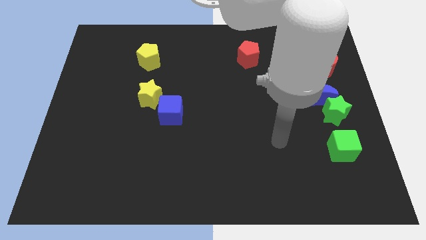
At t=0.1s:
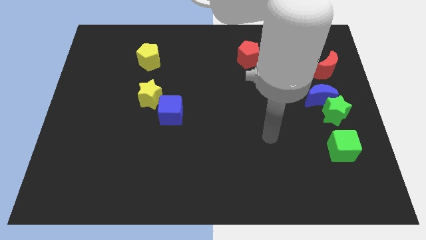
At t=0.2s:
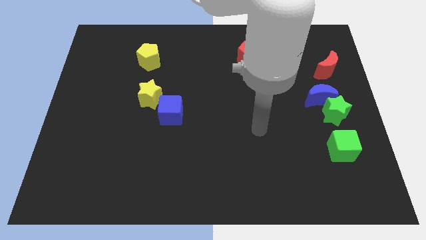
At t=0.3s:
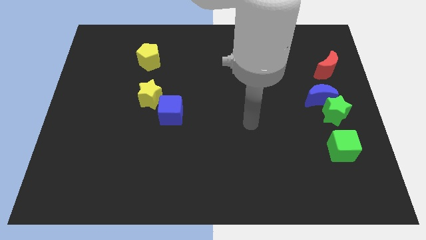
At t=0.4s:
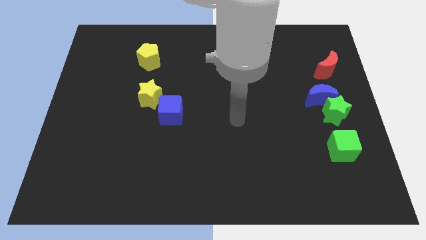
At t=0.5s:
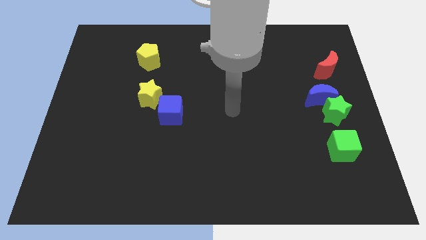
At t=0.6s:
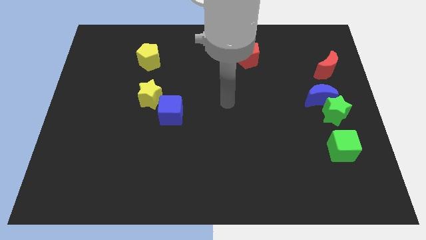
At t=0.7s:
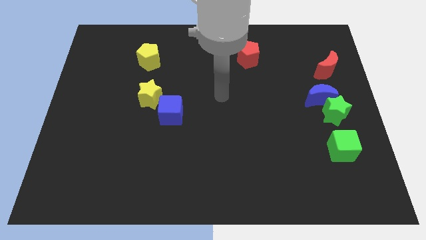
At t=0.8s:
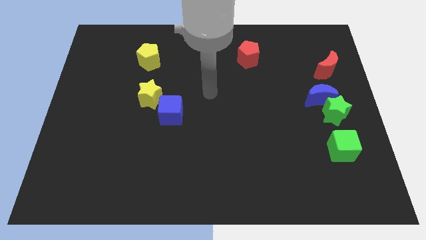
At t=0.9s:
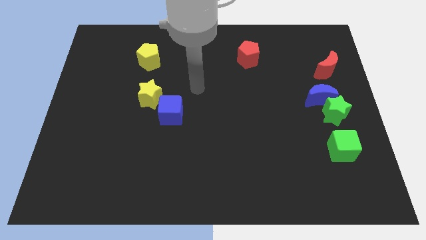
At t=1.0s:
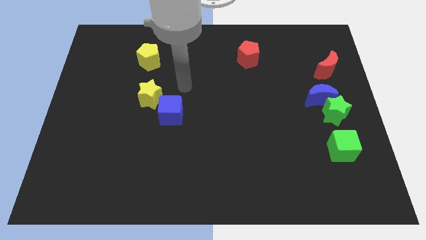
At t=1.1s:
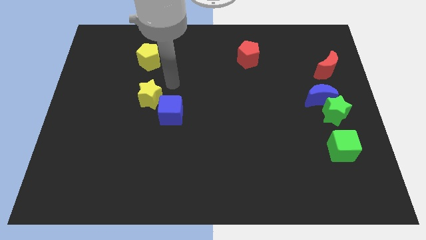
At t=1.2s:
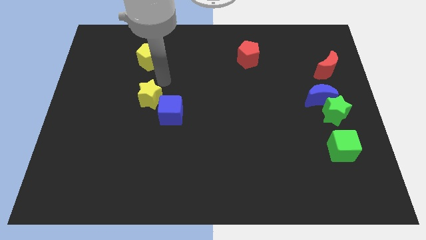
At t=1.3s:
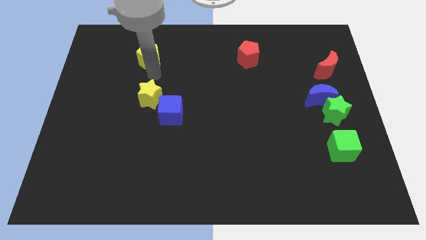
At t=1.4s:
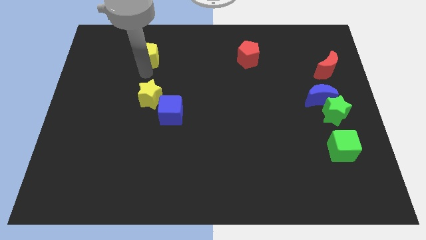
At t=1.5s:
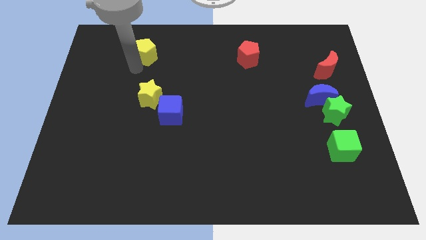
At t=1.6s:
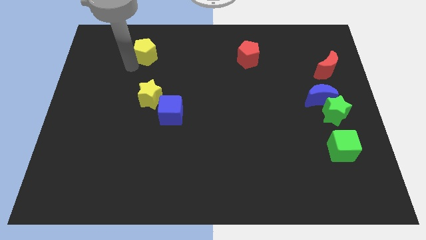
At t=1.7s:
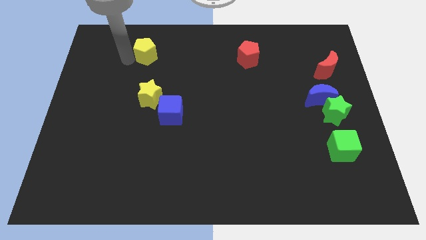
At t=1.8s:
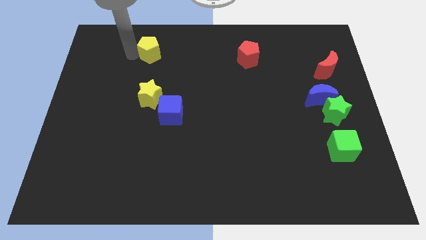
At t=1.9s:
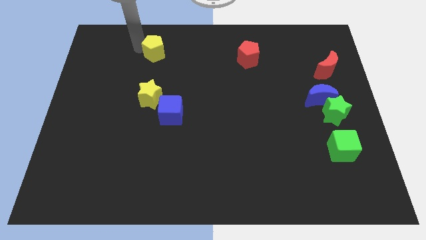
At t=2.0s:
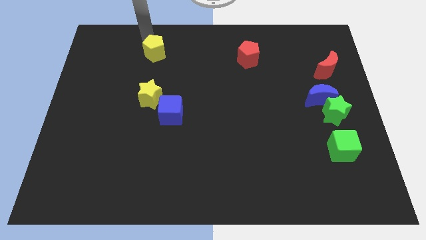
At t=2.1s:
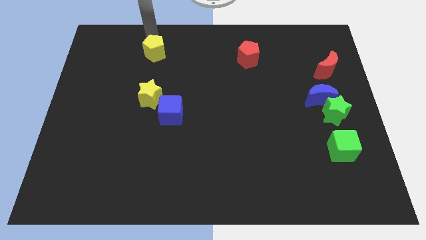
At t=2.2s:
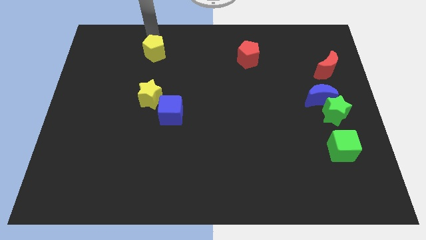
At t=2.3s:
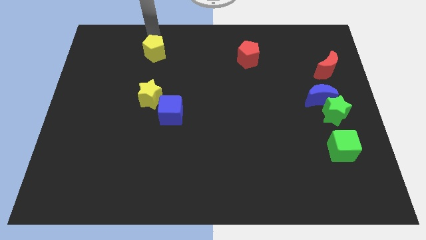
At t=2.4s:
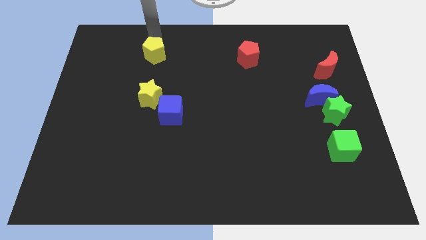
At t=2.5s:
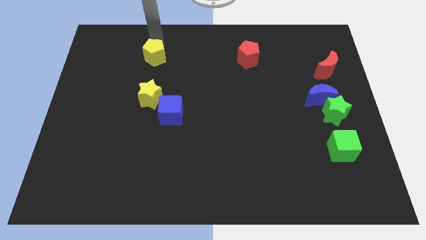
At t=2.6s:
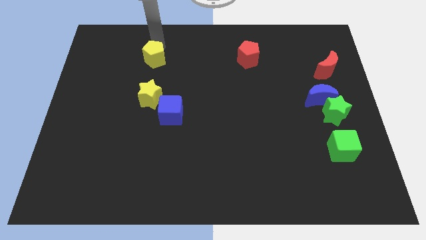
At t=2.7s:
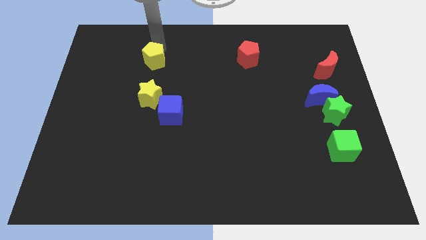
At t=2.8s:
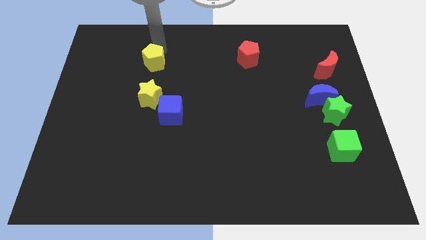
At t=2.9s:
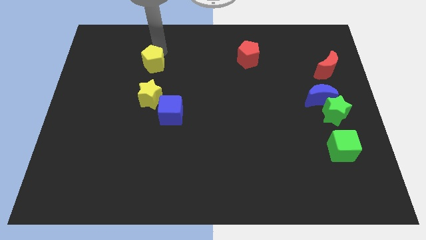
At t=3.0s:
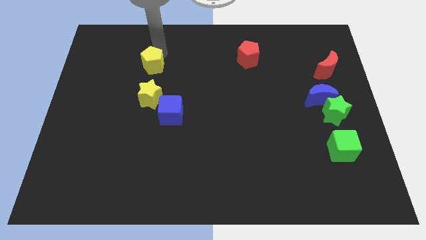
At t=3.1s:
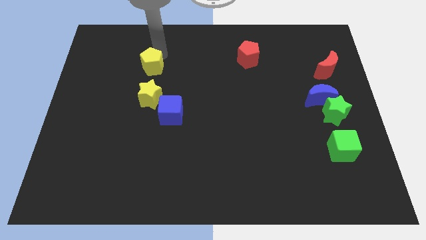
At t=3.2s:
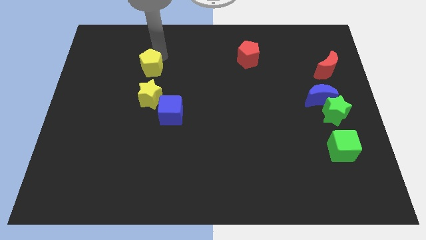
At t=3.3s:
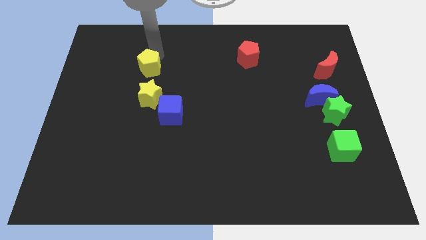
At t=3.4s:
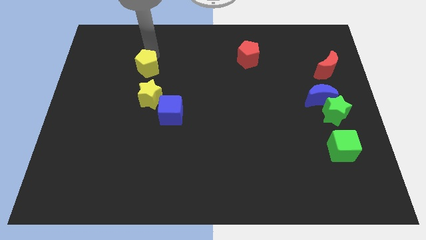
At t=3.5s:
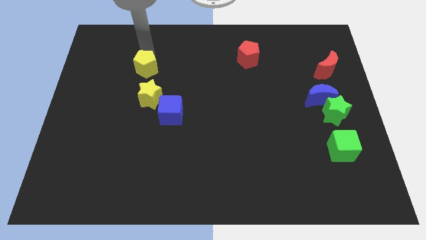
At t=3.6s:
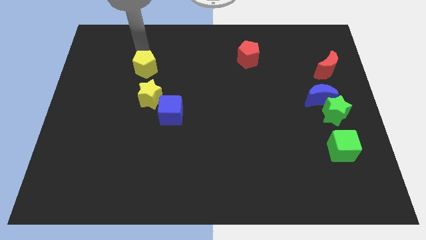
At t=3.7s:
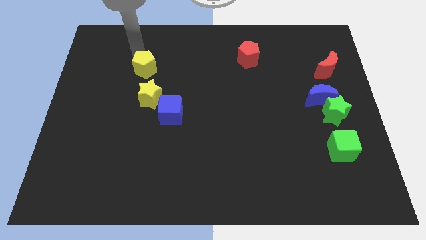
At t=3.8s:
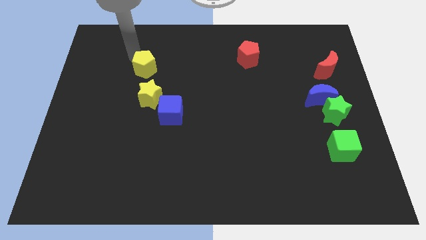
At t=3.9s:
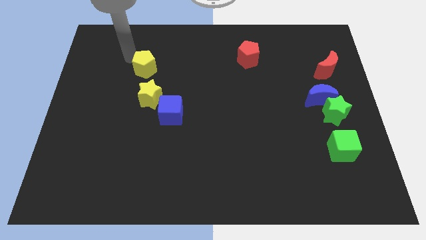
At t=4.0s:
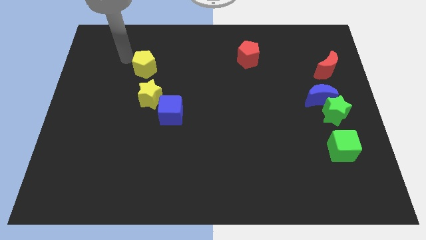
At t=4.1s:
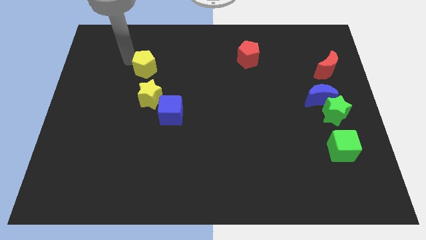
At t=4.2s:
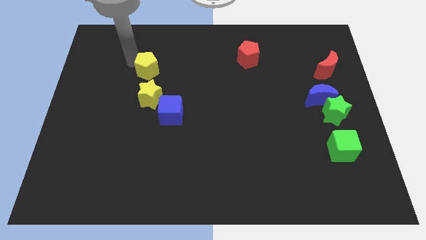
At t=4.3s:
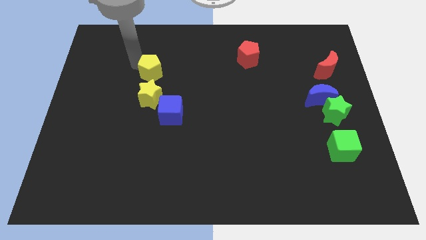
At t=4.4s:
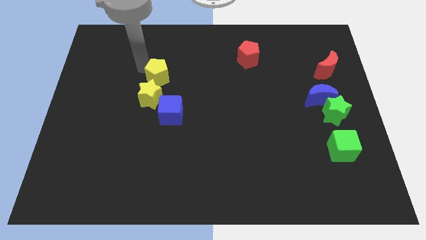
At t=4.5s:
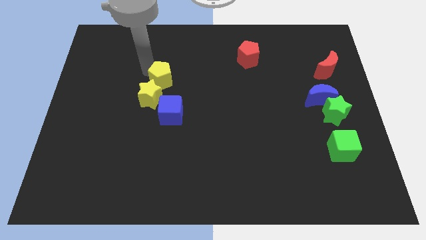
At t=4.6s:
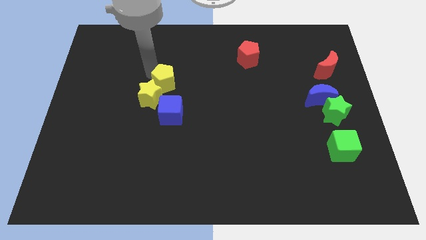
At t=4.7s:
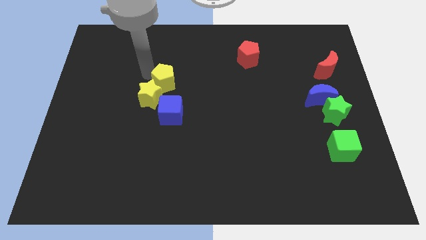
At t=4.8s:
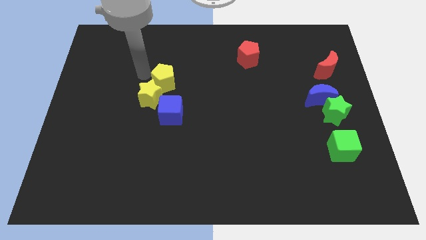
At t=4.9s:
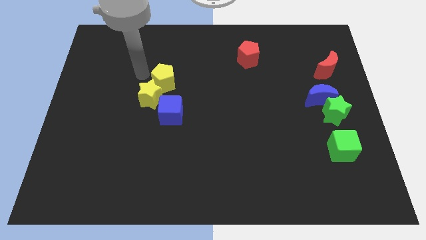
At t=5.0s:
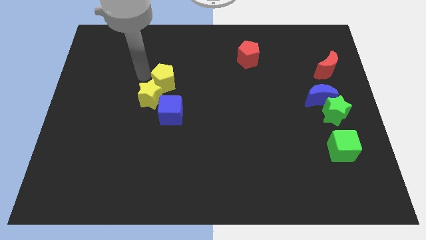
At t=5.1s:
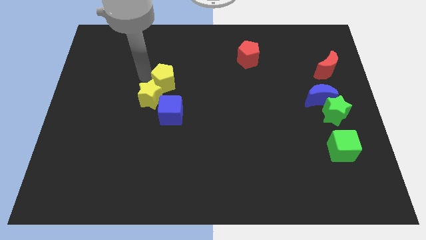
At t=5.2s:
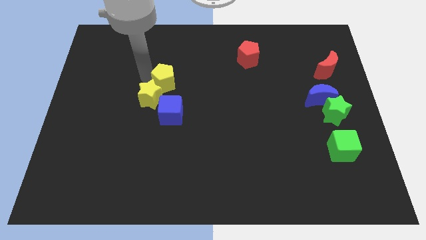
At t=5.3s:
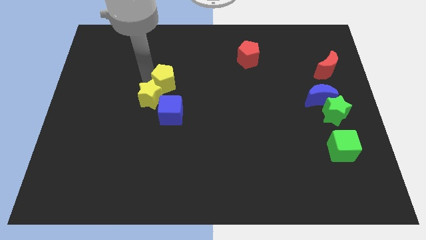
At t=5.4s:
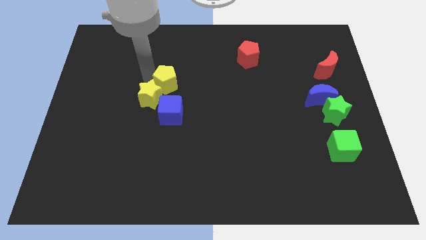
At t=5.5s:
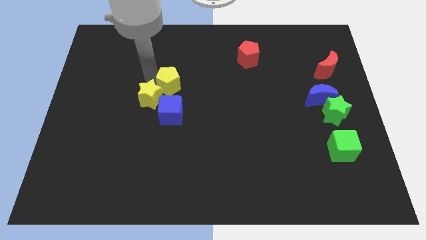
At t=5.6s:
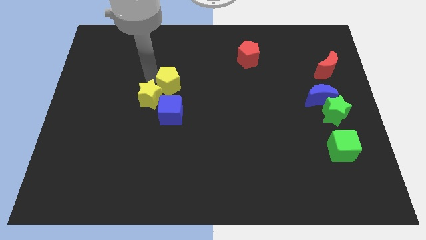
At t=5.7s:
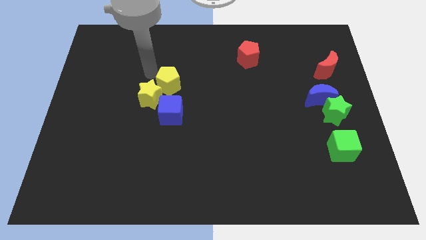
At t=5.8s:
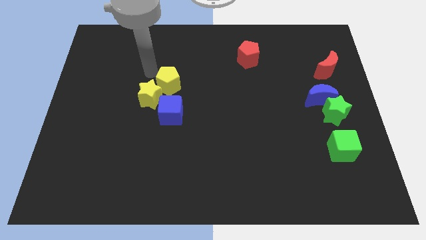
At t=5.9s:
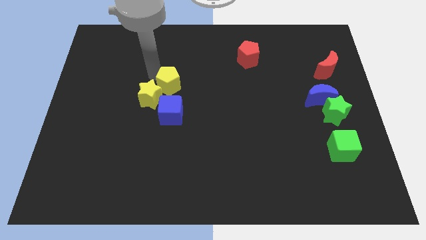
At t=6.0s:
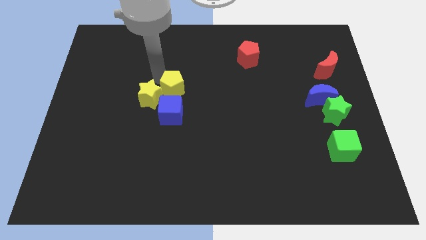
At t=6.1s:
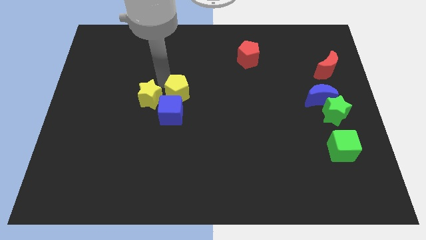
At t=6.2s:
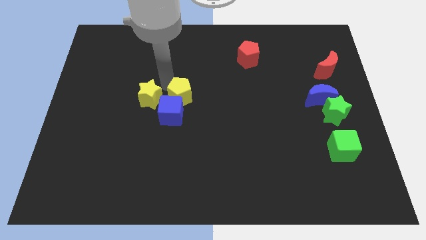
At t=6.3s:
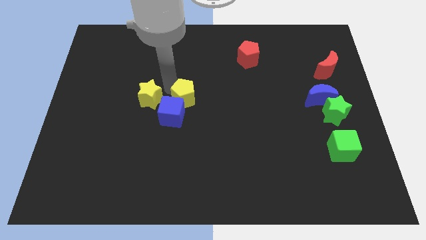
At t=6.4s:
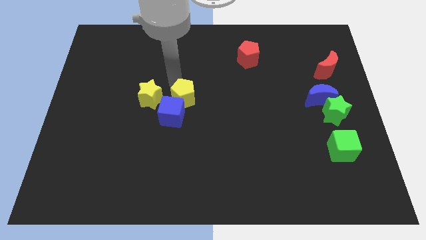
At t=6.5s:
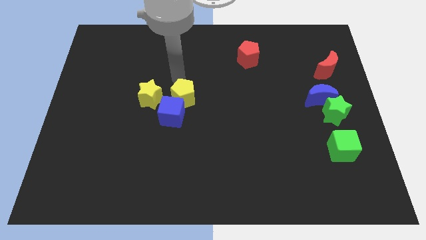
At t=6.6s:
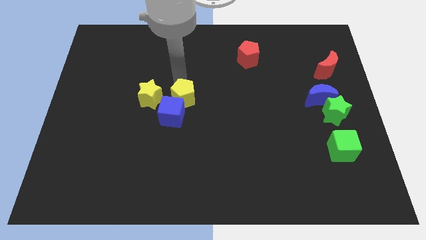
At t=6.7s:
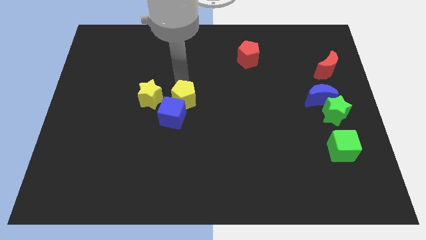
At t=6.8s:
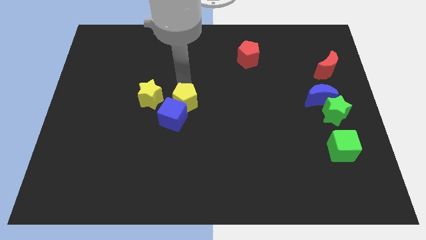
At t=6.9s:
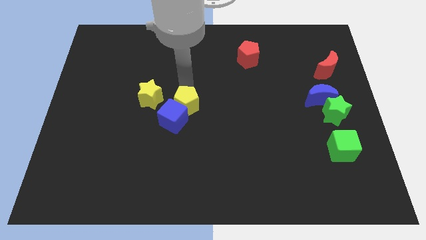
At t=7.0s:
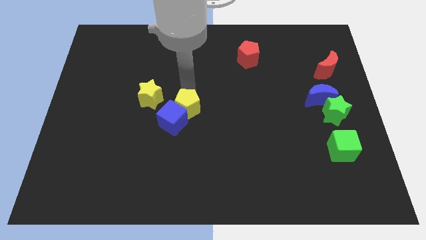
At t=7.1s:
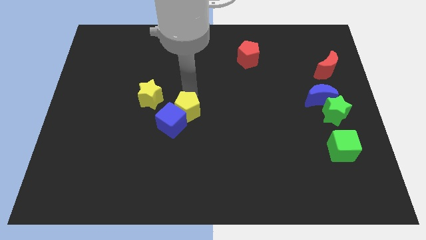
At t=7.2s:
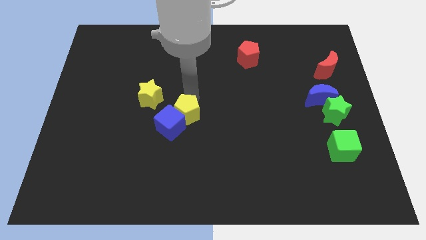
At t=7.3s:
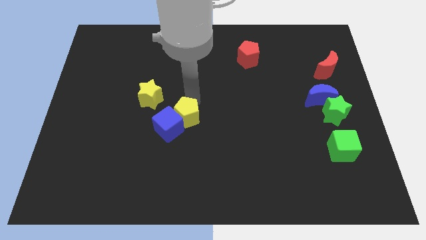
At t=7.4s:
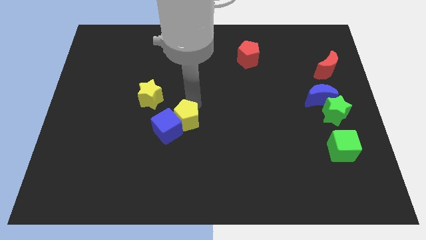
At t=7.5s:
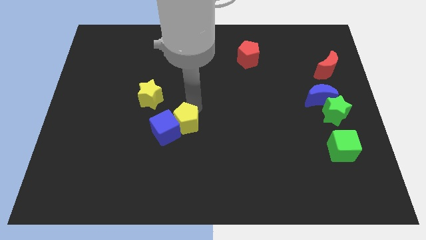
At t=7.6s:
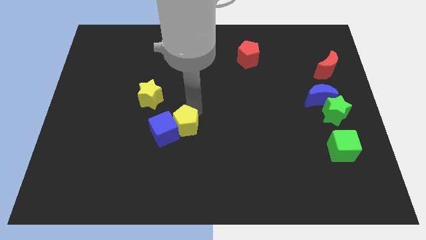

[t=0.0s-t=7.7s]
move the yellow pentagon diagonally down and to the right of the blue cube
